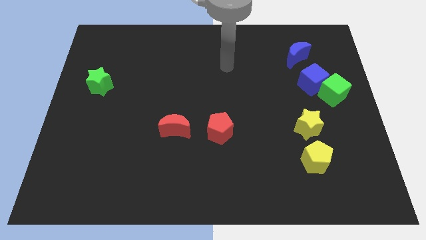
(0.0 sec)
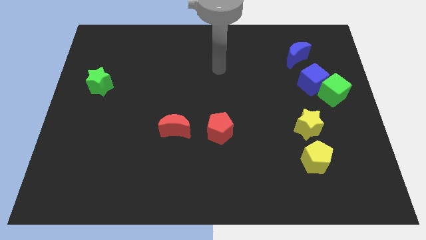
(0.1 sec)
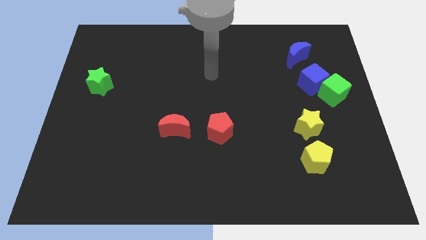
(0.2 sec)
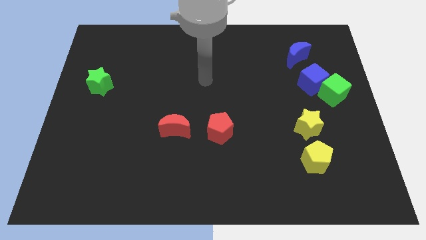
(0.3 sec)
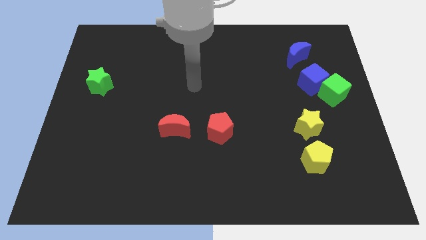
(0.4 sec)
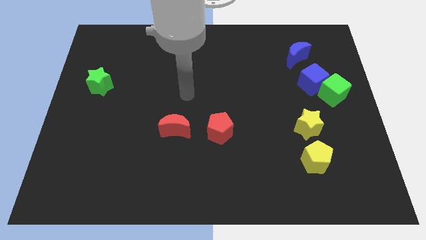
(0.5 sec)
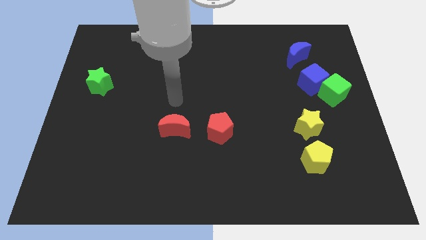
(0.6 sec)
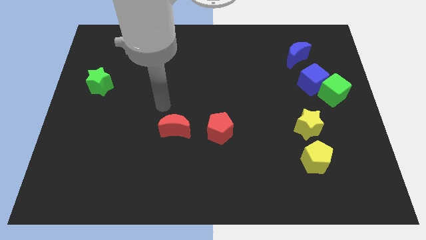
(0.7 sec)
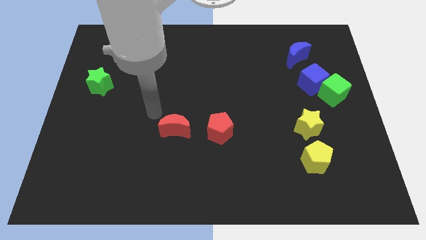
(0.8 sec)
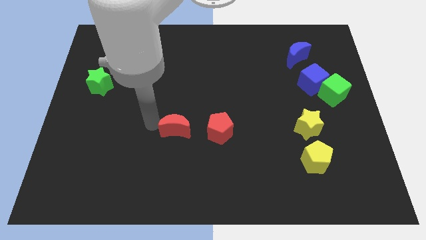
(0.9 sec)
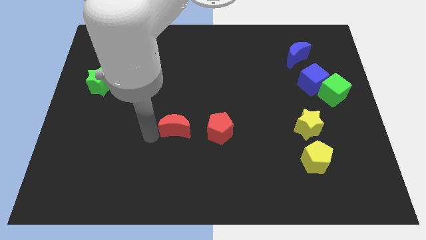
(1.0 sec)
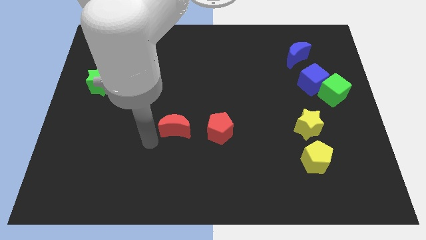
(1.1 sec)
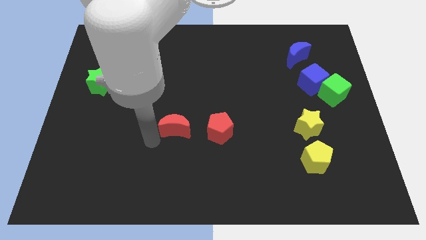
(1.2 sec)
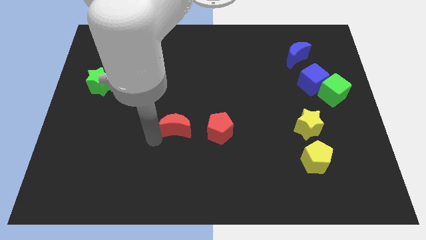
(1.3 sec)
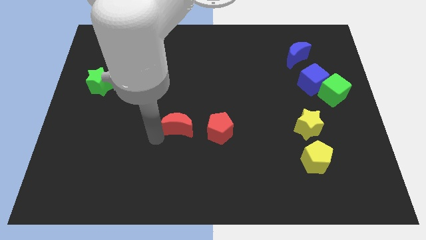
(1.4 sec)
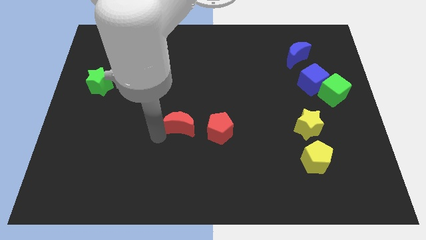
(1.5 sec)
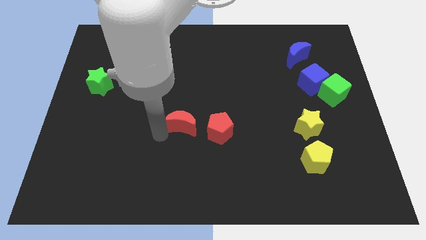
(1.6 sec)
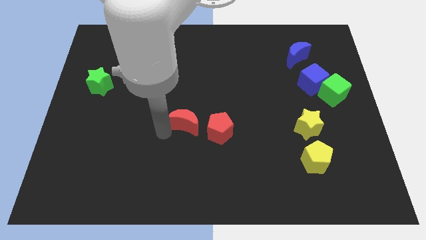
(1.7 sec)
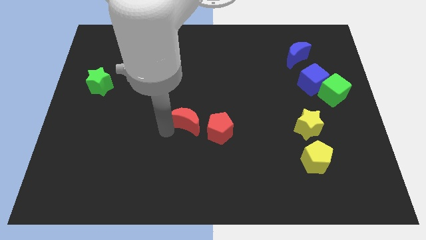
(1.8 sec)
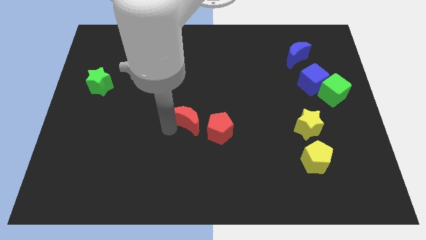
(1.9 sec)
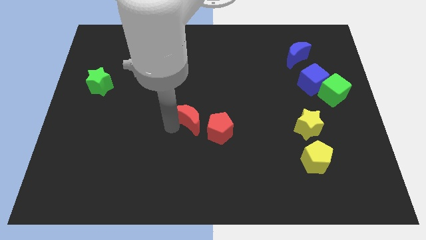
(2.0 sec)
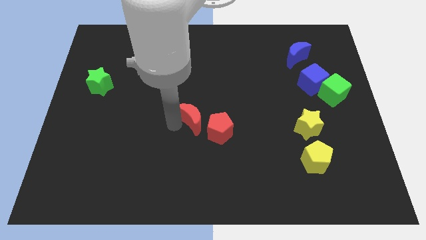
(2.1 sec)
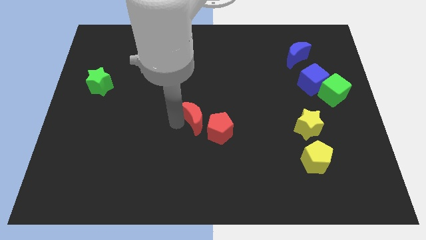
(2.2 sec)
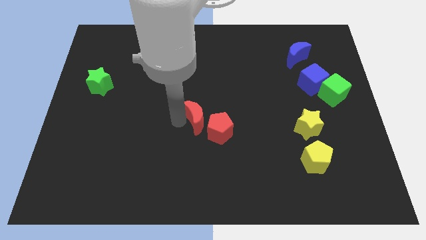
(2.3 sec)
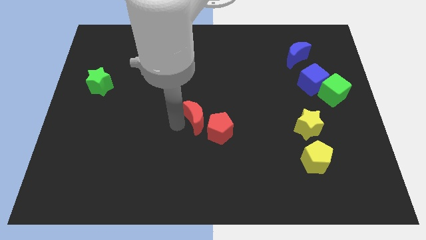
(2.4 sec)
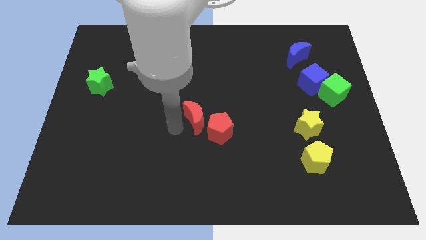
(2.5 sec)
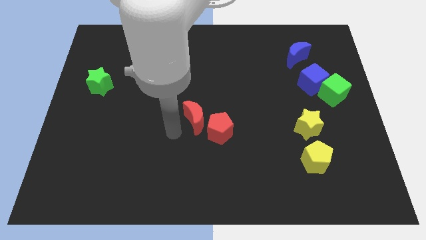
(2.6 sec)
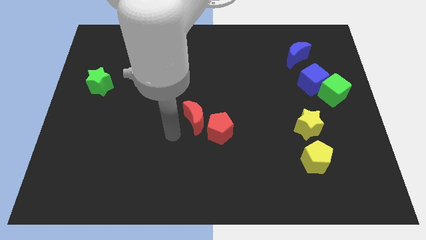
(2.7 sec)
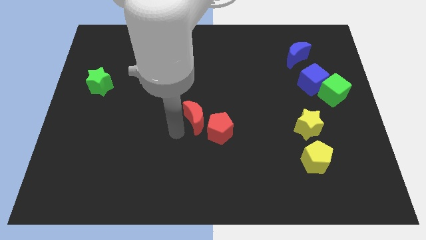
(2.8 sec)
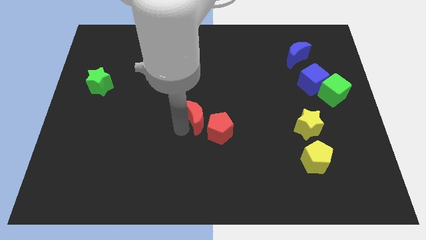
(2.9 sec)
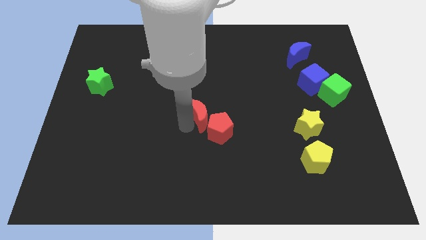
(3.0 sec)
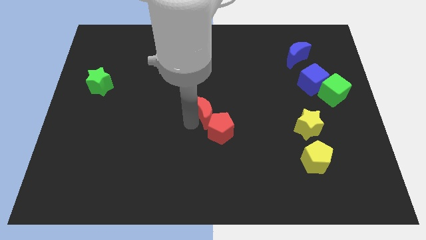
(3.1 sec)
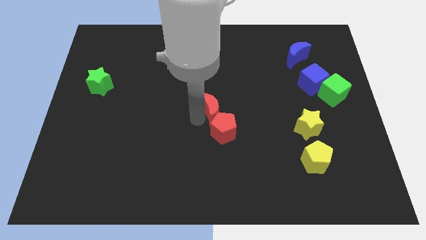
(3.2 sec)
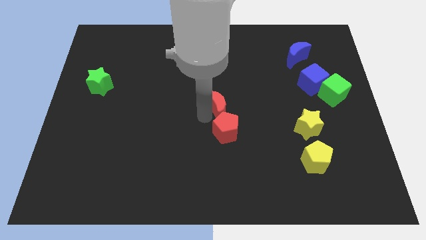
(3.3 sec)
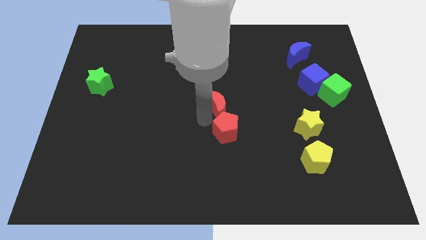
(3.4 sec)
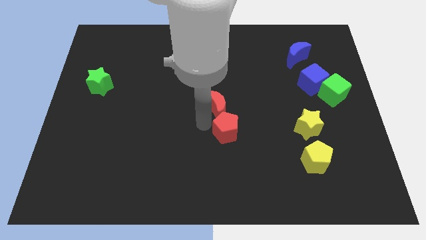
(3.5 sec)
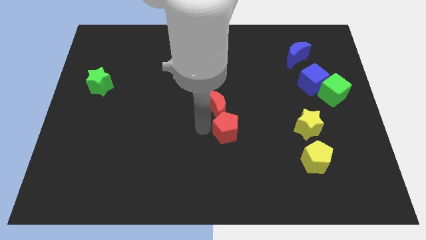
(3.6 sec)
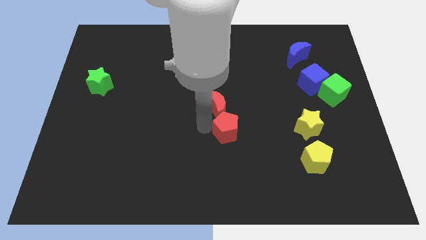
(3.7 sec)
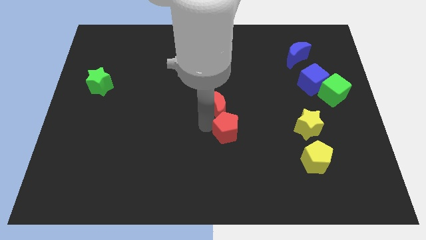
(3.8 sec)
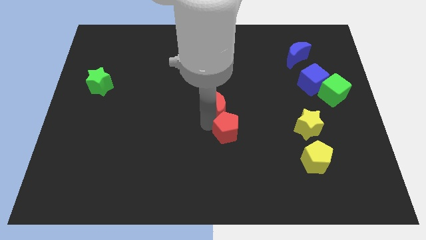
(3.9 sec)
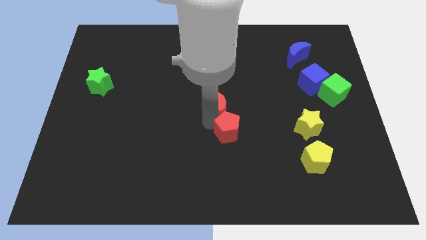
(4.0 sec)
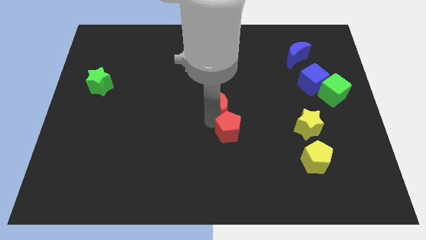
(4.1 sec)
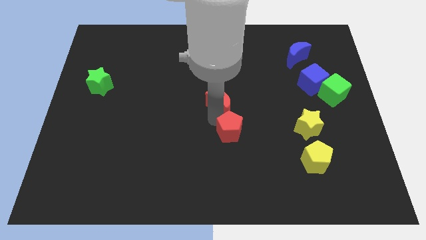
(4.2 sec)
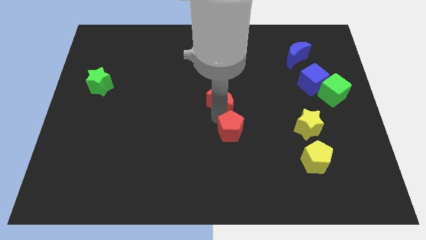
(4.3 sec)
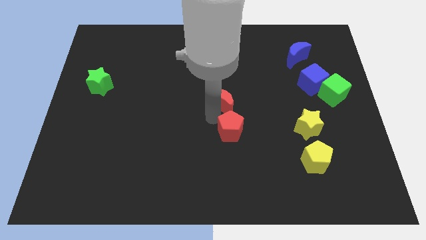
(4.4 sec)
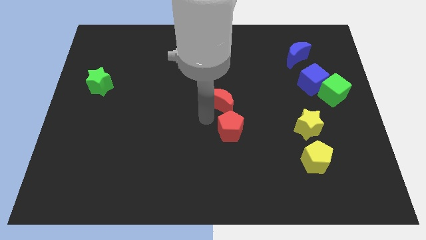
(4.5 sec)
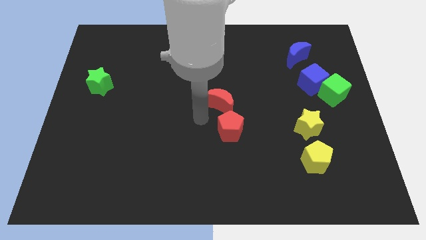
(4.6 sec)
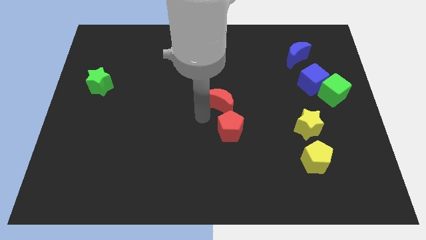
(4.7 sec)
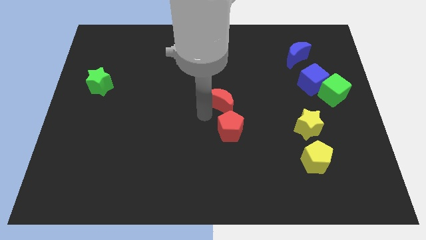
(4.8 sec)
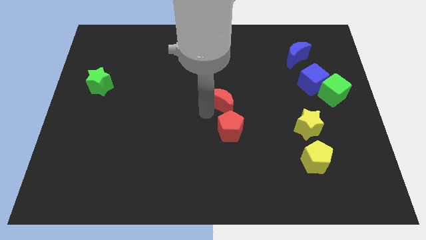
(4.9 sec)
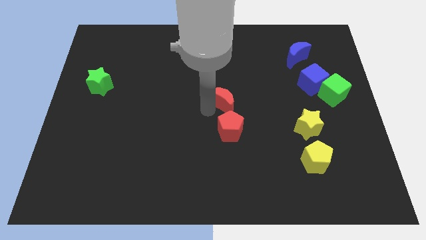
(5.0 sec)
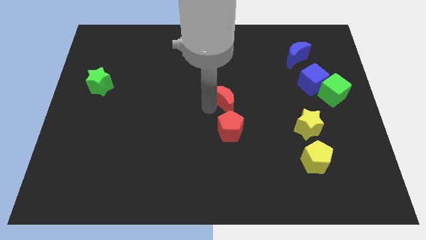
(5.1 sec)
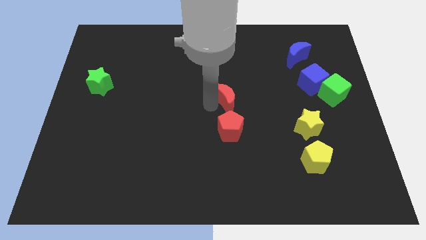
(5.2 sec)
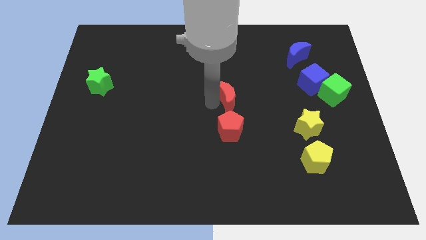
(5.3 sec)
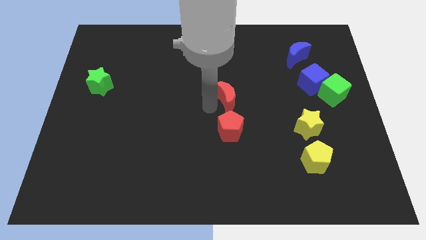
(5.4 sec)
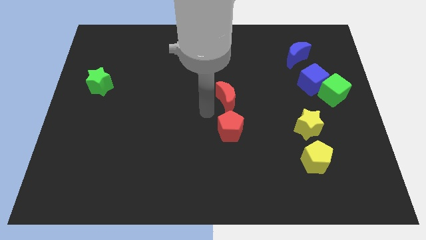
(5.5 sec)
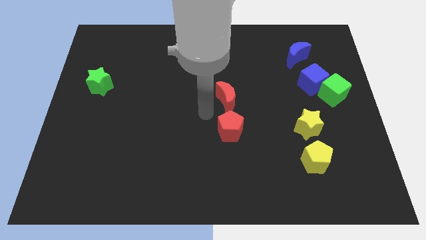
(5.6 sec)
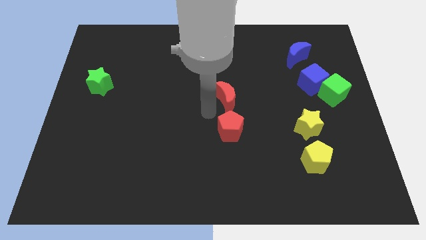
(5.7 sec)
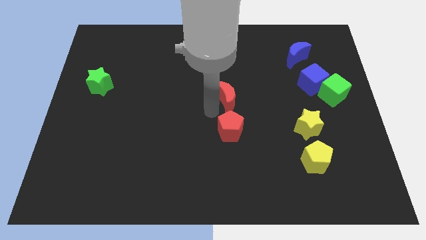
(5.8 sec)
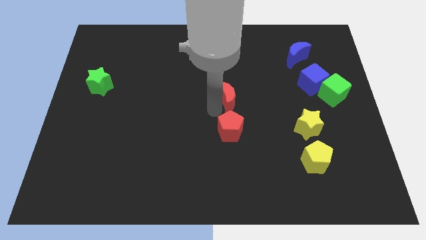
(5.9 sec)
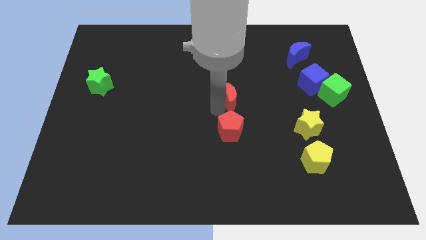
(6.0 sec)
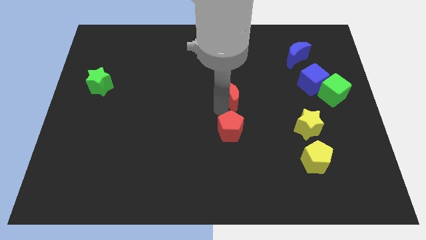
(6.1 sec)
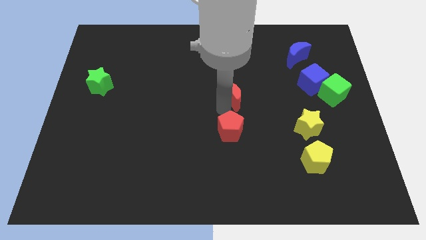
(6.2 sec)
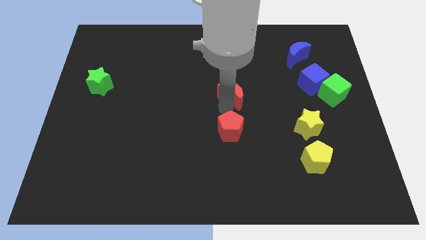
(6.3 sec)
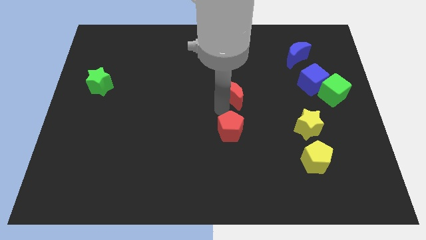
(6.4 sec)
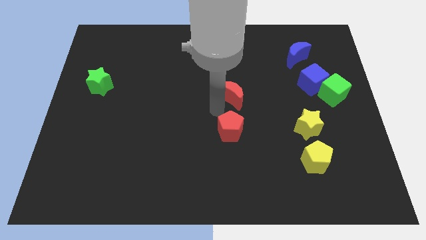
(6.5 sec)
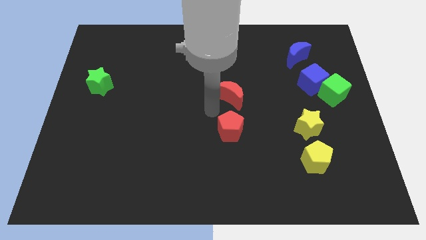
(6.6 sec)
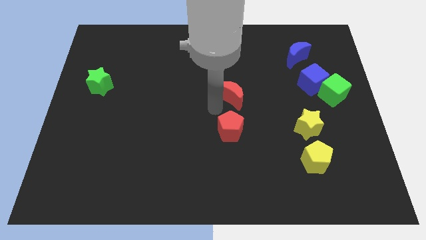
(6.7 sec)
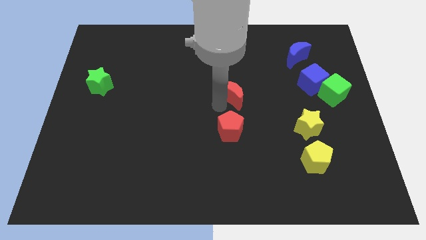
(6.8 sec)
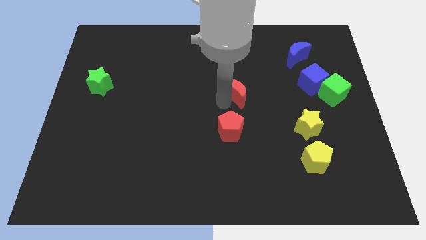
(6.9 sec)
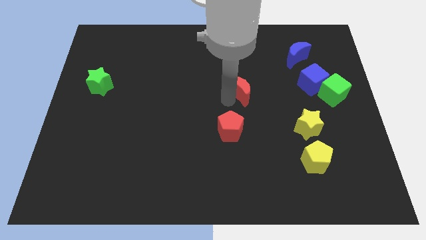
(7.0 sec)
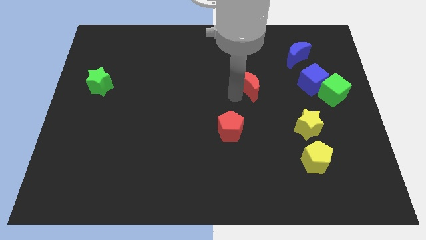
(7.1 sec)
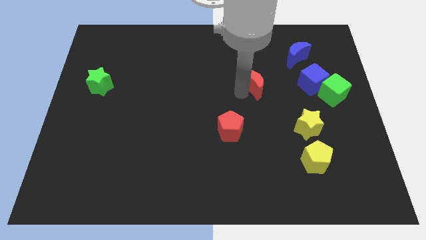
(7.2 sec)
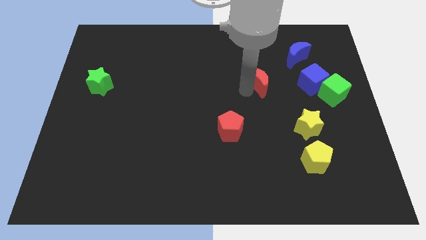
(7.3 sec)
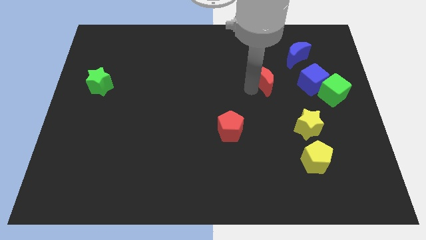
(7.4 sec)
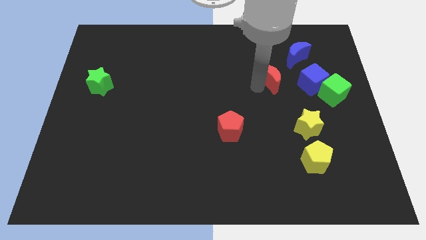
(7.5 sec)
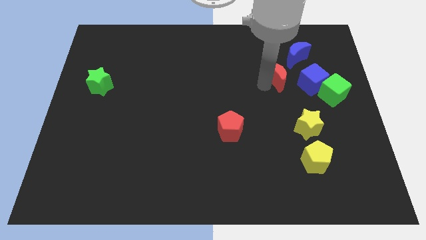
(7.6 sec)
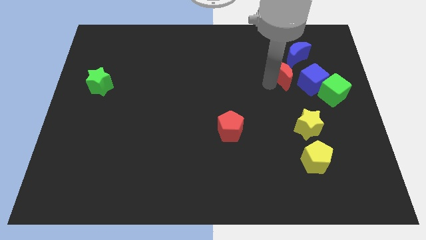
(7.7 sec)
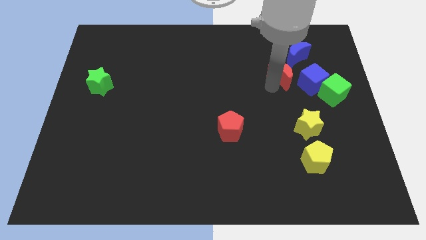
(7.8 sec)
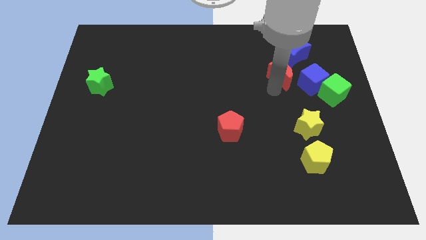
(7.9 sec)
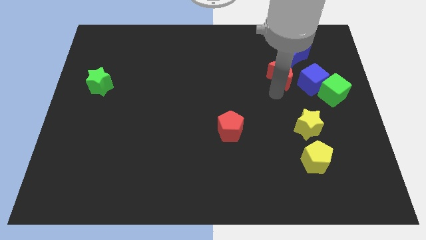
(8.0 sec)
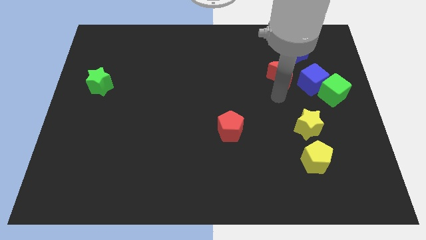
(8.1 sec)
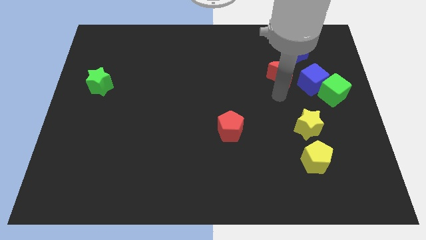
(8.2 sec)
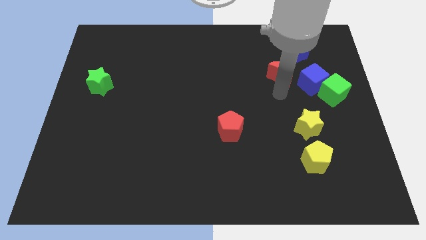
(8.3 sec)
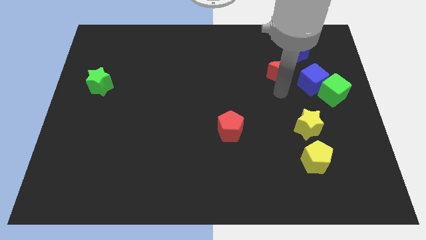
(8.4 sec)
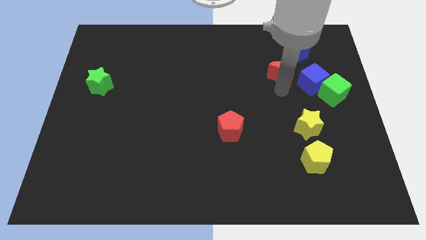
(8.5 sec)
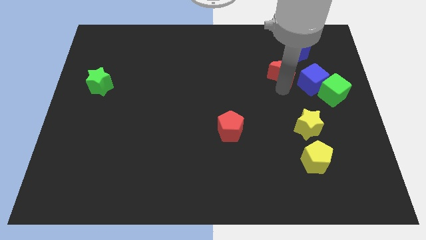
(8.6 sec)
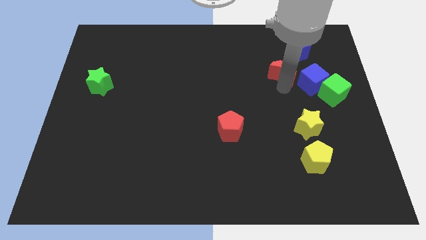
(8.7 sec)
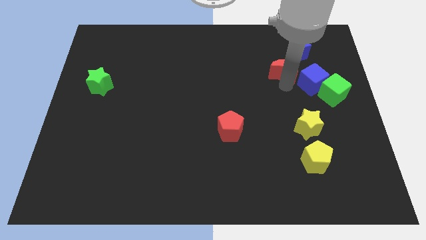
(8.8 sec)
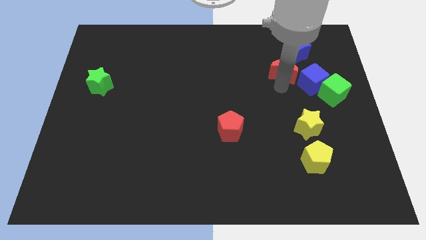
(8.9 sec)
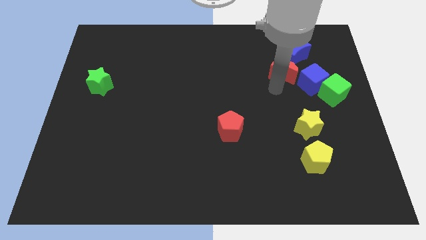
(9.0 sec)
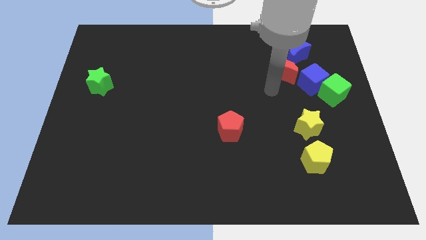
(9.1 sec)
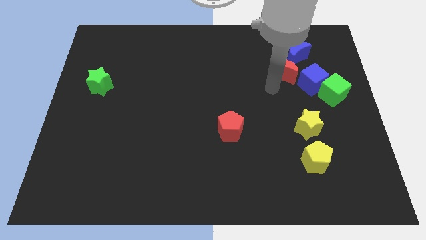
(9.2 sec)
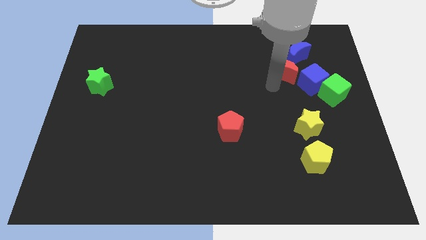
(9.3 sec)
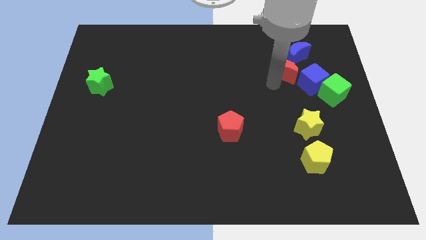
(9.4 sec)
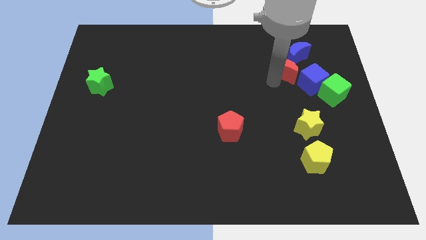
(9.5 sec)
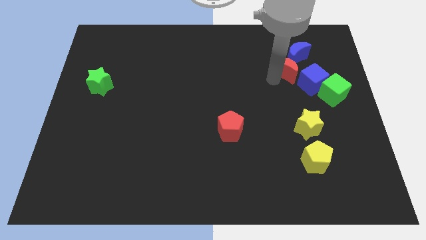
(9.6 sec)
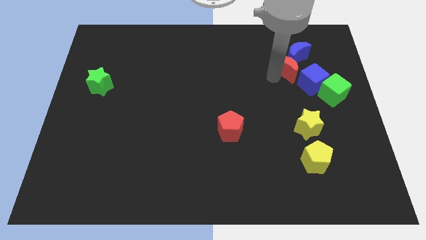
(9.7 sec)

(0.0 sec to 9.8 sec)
slide the red moon towards the blue moon
